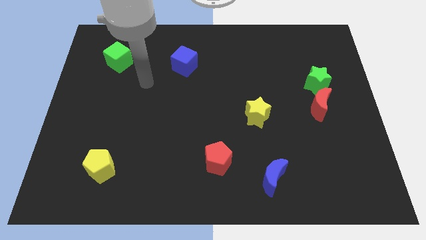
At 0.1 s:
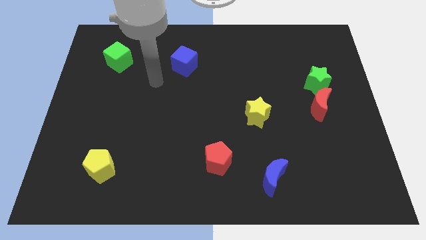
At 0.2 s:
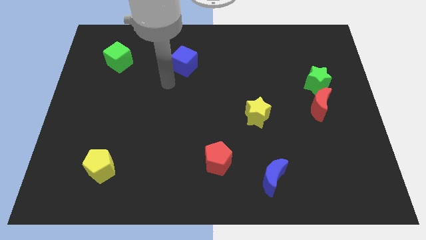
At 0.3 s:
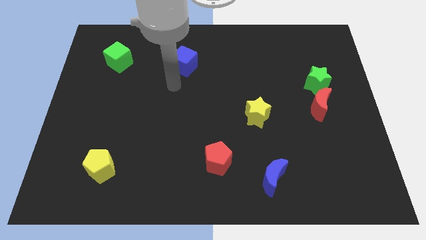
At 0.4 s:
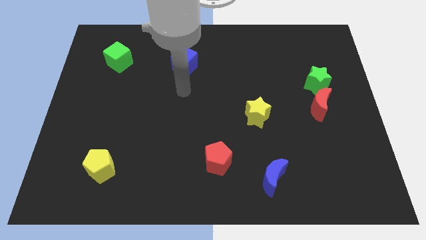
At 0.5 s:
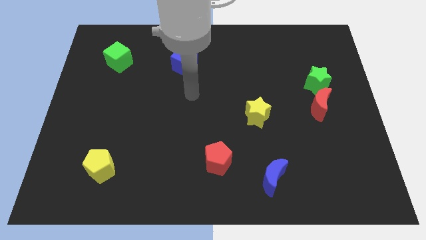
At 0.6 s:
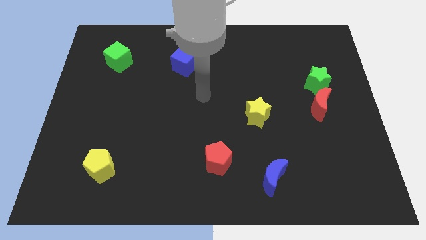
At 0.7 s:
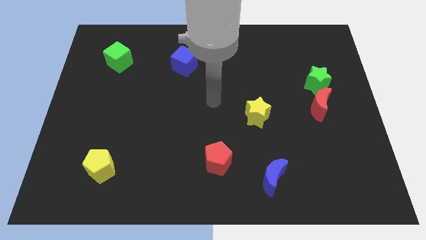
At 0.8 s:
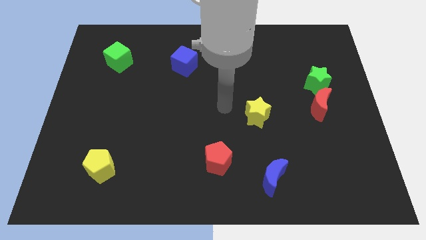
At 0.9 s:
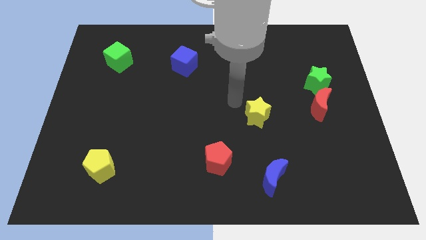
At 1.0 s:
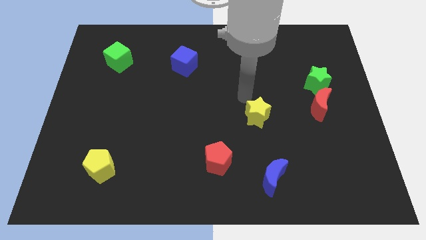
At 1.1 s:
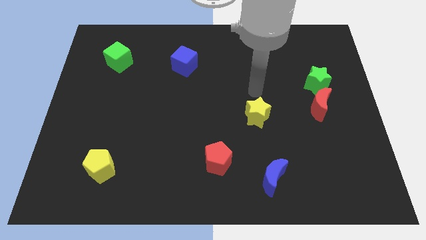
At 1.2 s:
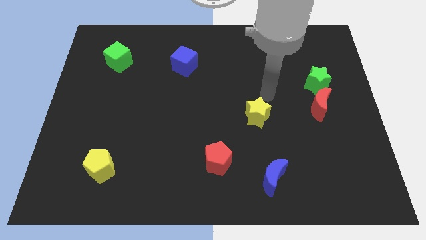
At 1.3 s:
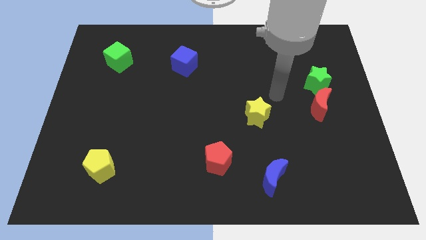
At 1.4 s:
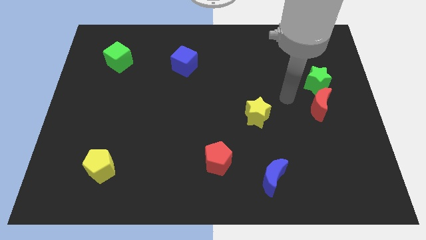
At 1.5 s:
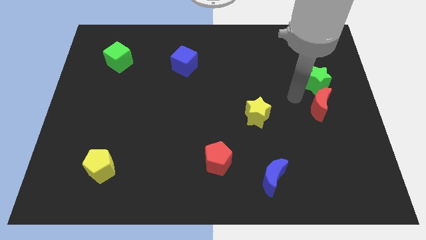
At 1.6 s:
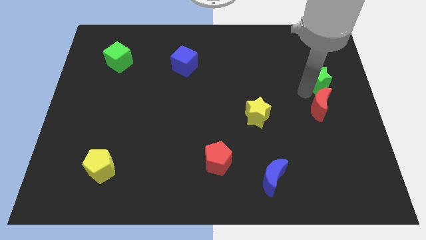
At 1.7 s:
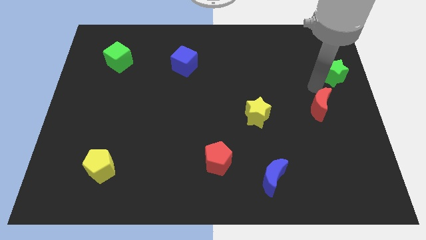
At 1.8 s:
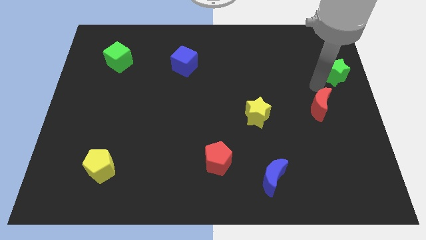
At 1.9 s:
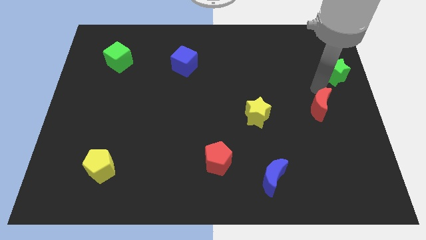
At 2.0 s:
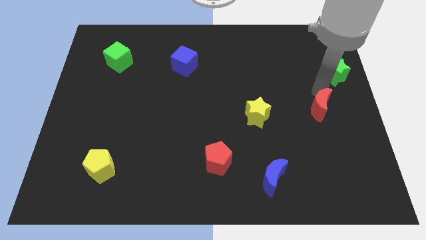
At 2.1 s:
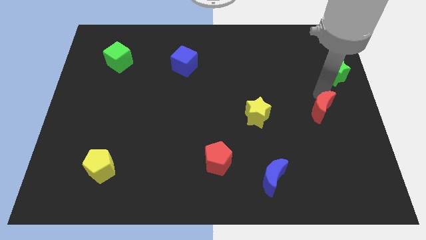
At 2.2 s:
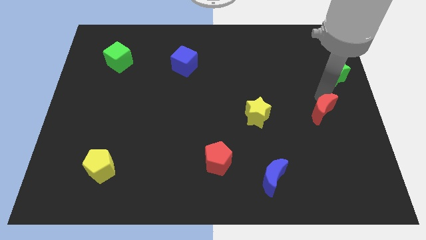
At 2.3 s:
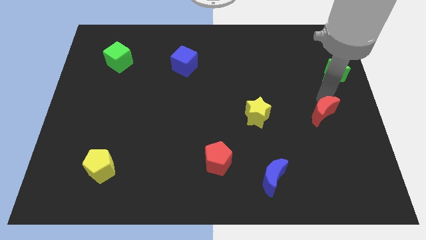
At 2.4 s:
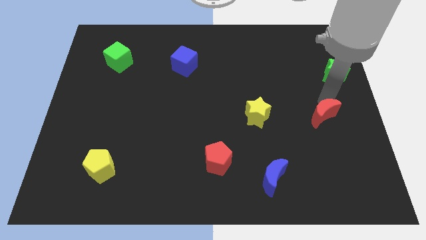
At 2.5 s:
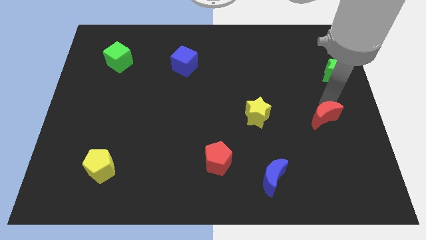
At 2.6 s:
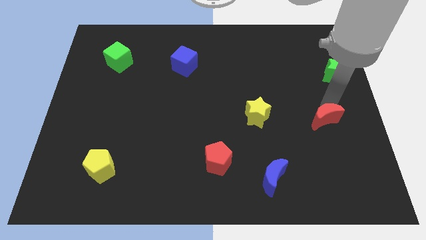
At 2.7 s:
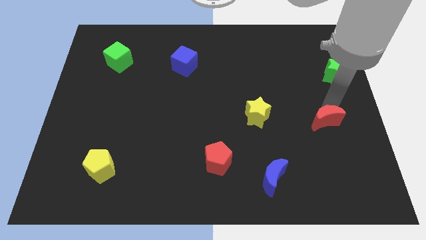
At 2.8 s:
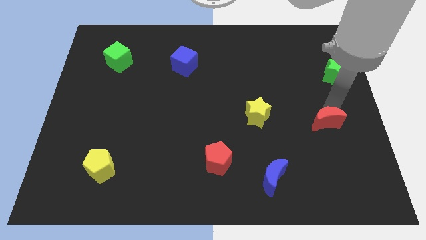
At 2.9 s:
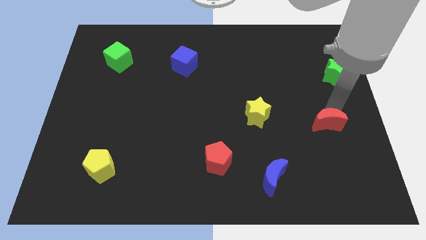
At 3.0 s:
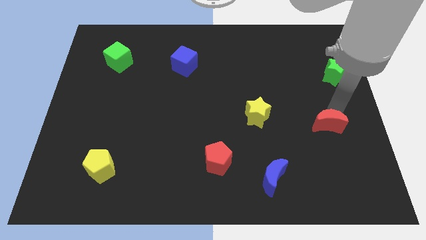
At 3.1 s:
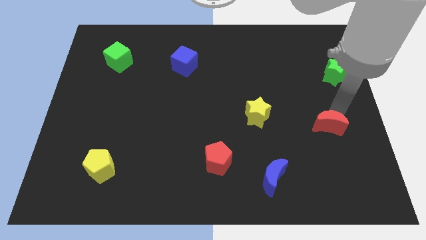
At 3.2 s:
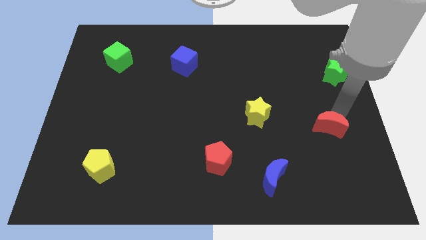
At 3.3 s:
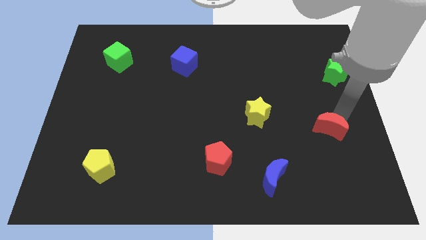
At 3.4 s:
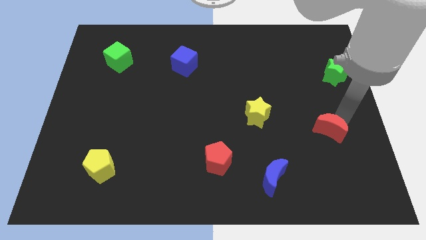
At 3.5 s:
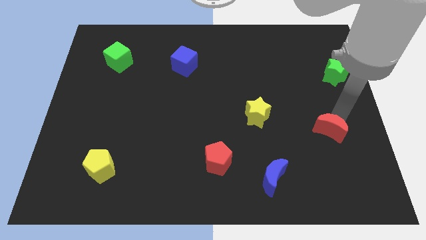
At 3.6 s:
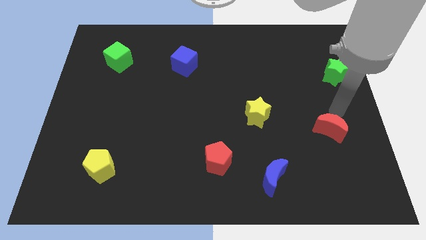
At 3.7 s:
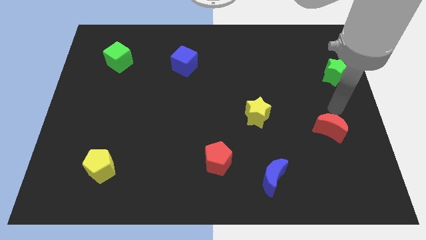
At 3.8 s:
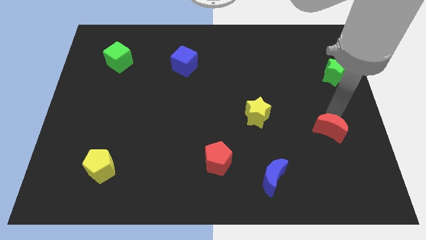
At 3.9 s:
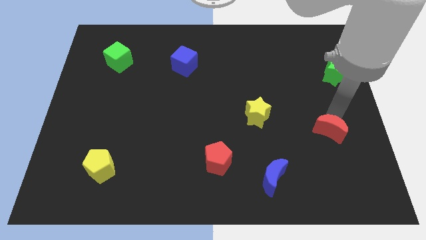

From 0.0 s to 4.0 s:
slightly slide the red moon down

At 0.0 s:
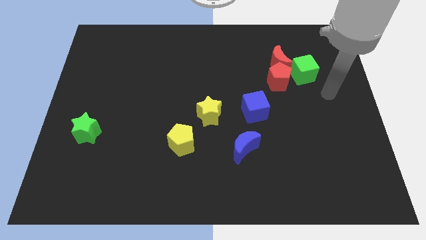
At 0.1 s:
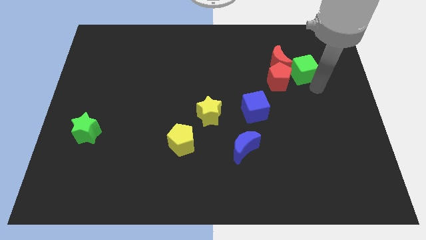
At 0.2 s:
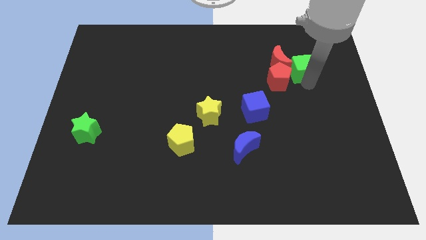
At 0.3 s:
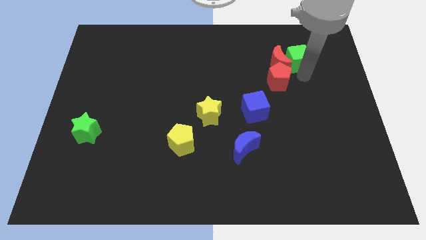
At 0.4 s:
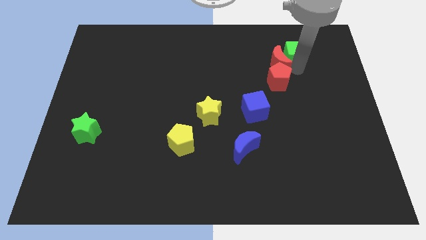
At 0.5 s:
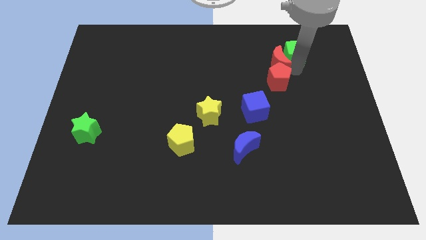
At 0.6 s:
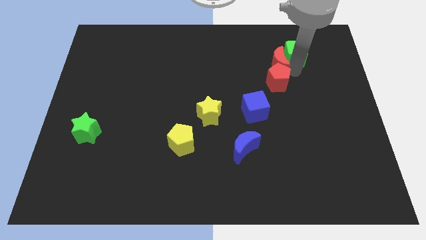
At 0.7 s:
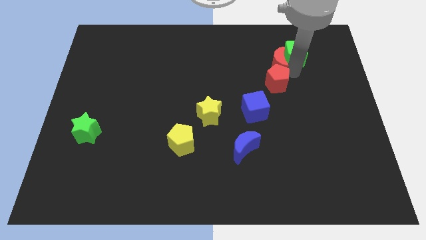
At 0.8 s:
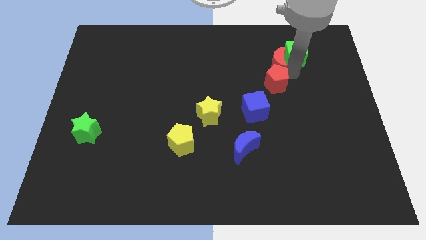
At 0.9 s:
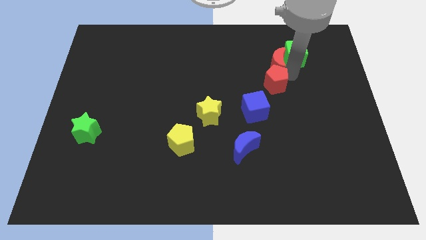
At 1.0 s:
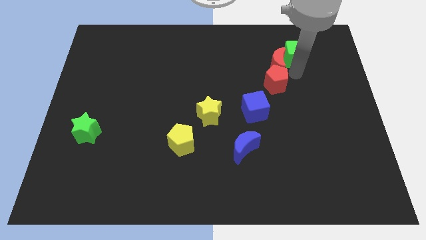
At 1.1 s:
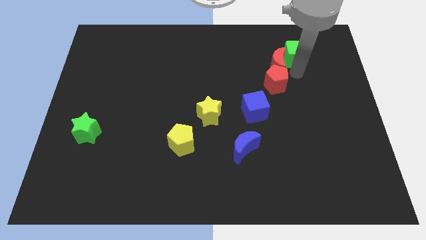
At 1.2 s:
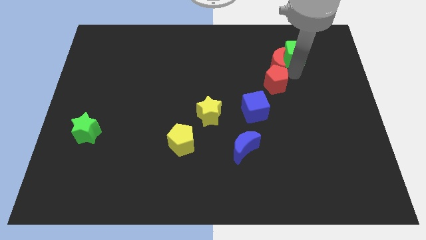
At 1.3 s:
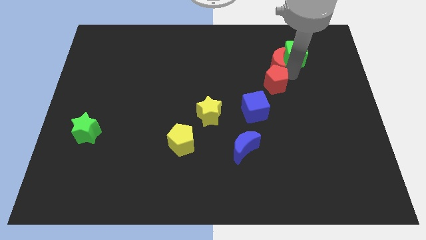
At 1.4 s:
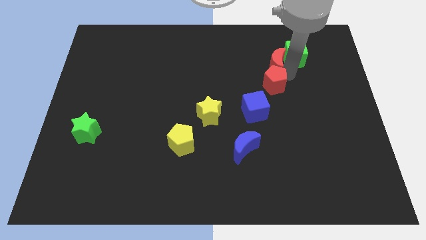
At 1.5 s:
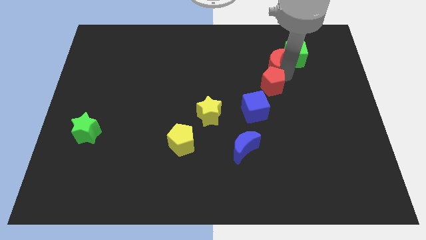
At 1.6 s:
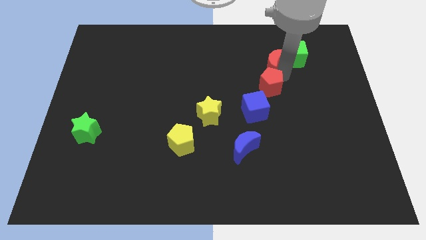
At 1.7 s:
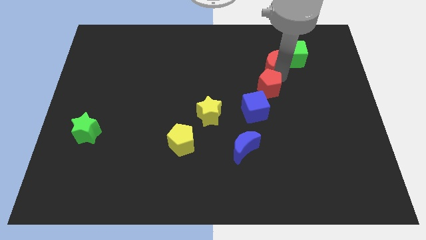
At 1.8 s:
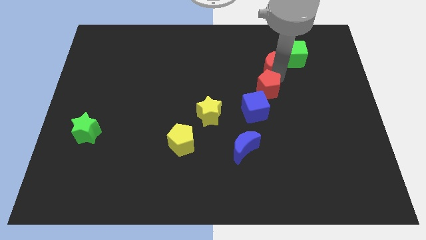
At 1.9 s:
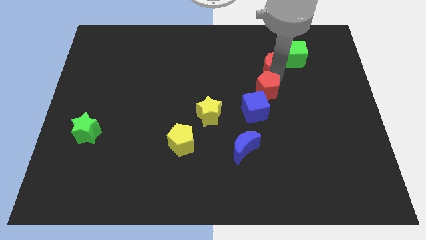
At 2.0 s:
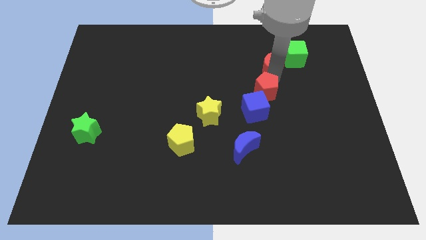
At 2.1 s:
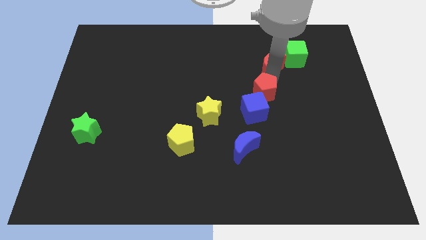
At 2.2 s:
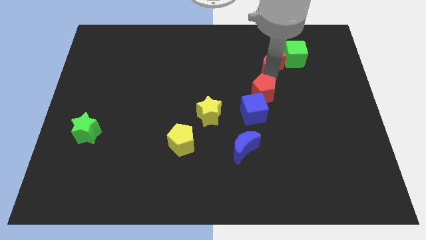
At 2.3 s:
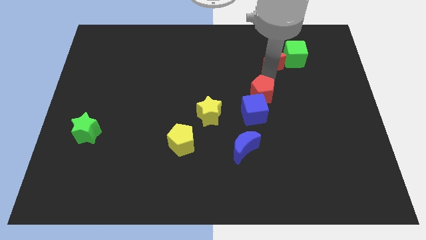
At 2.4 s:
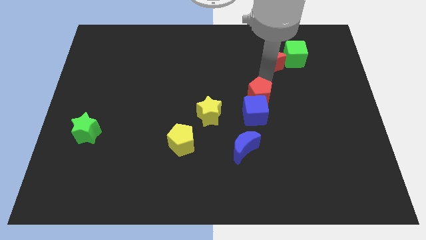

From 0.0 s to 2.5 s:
move the red pentagon a little bit down and to the left

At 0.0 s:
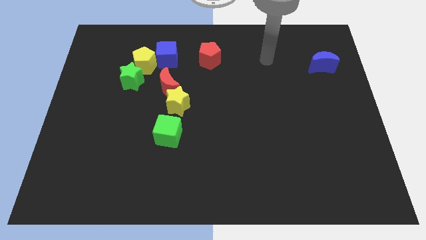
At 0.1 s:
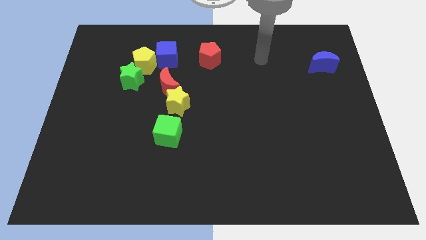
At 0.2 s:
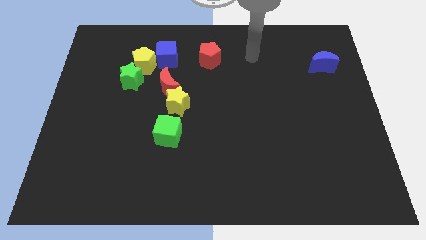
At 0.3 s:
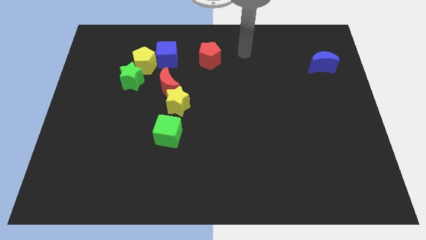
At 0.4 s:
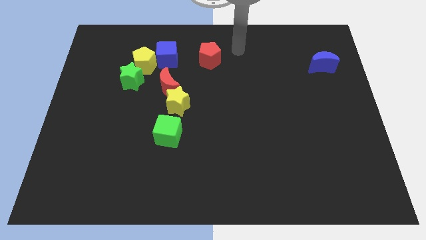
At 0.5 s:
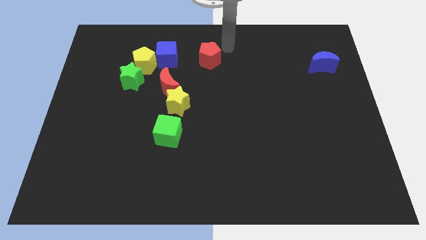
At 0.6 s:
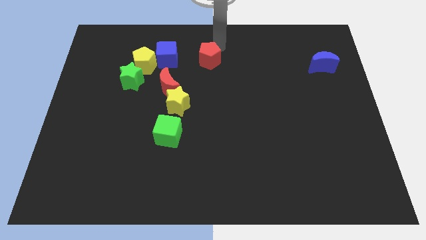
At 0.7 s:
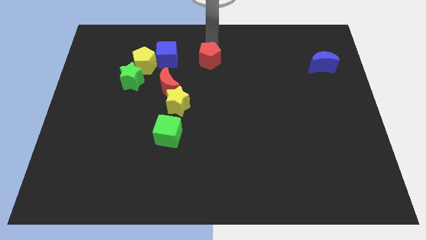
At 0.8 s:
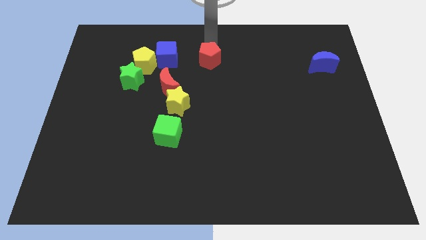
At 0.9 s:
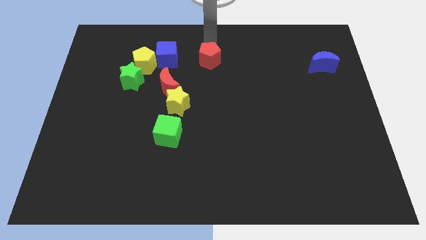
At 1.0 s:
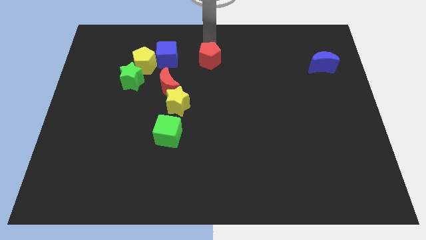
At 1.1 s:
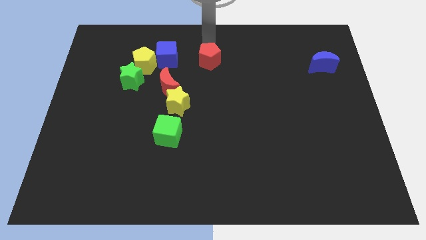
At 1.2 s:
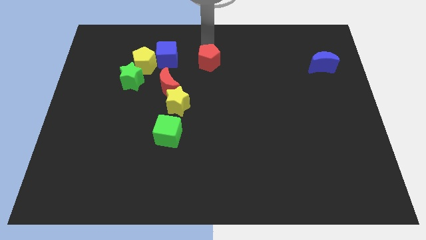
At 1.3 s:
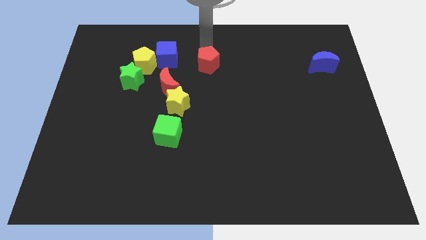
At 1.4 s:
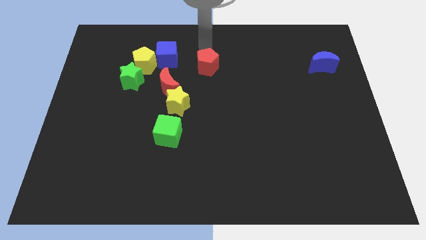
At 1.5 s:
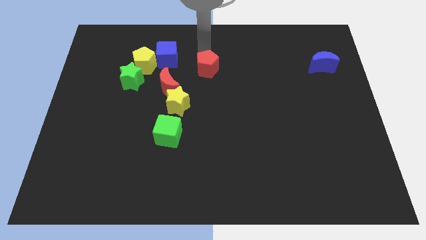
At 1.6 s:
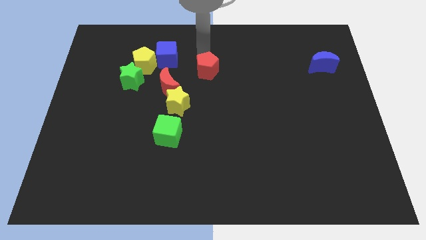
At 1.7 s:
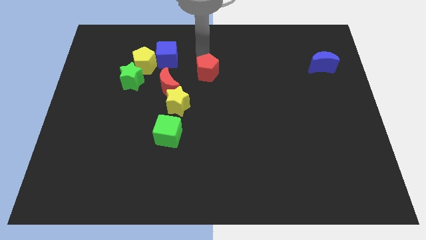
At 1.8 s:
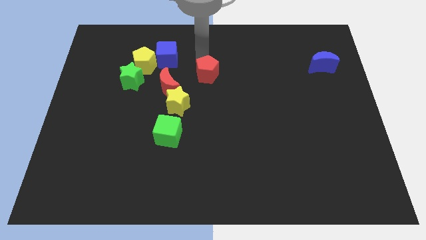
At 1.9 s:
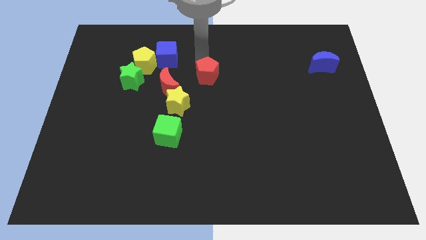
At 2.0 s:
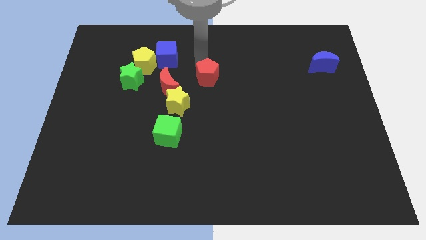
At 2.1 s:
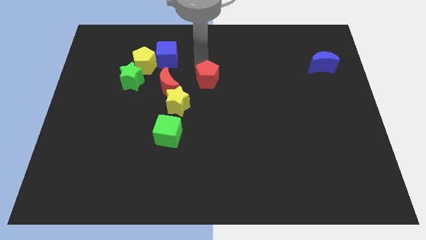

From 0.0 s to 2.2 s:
slightly move the red pentagon down
